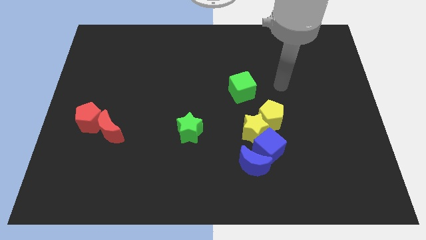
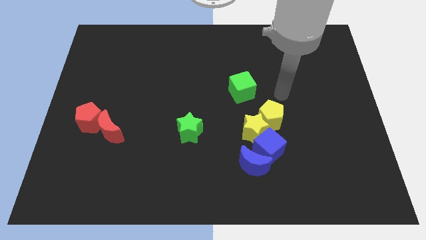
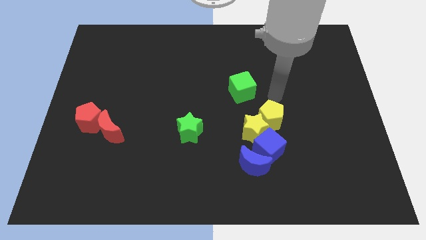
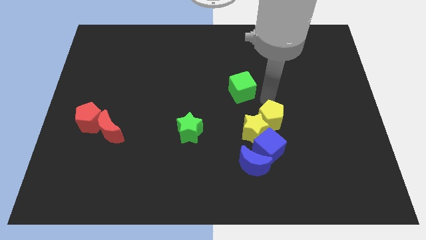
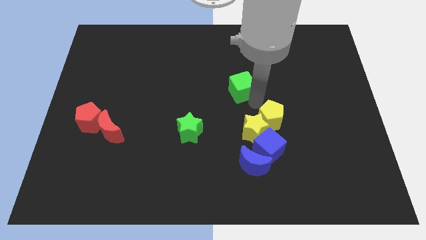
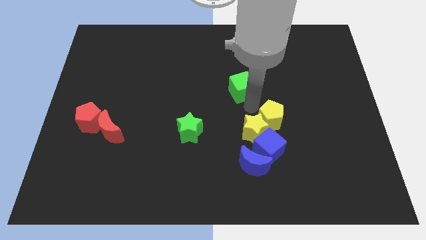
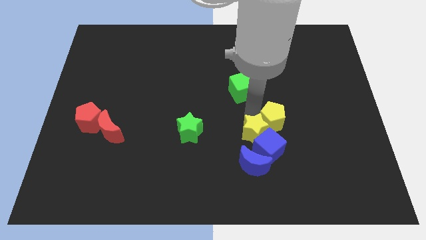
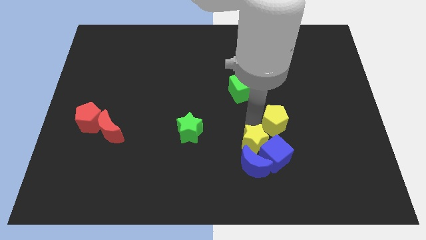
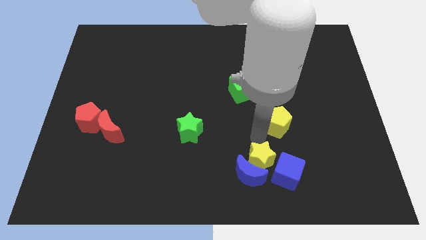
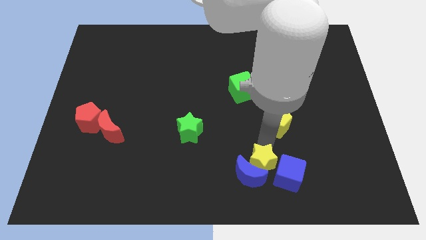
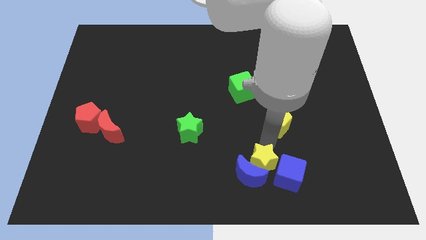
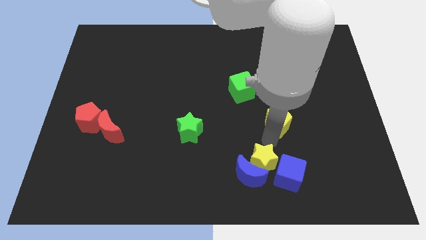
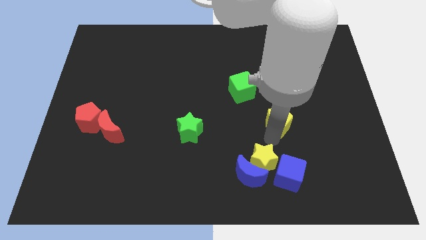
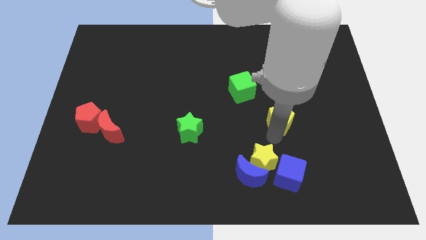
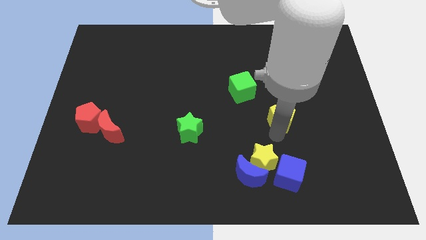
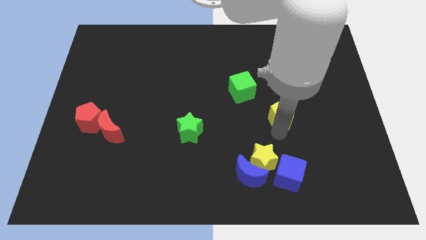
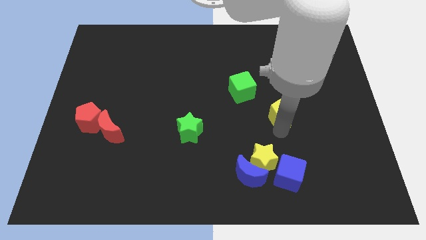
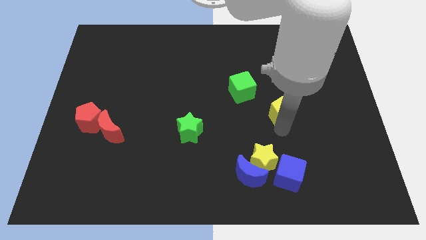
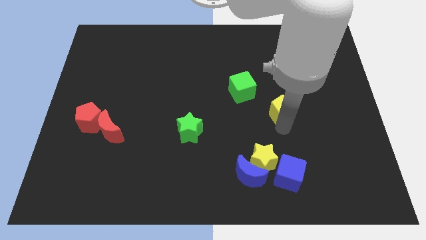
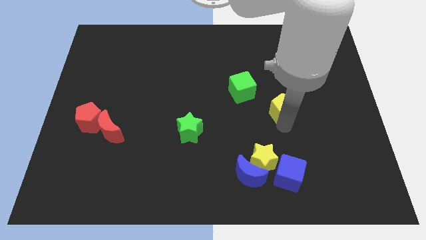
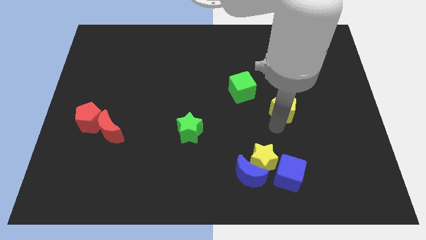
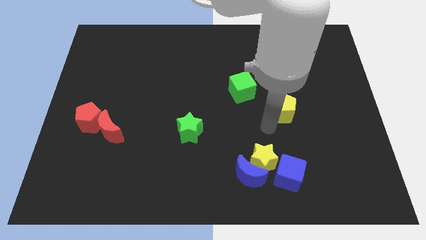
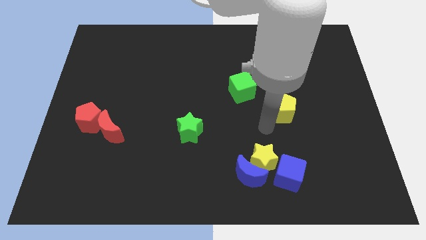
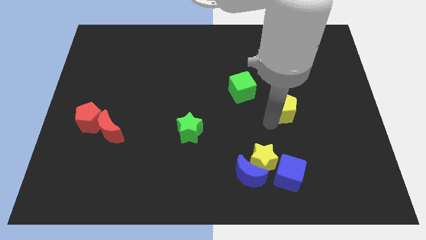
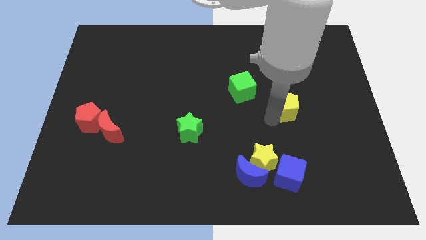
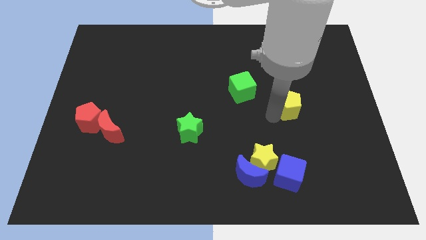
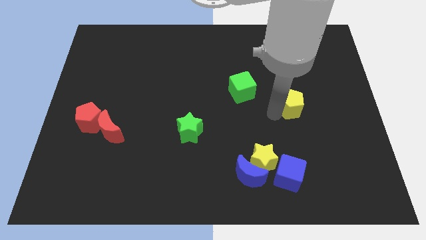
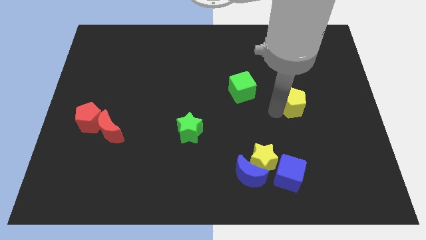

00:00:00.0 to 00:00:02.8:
slightly push the yellow pentagon up and to the right diagonally

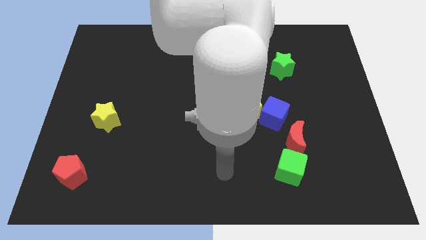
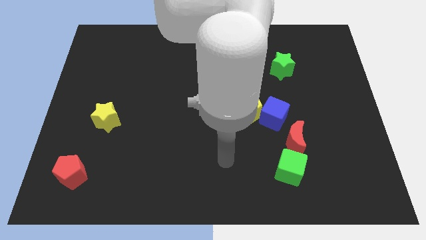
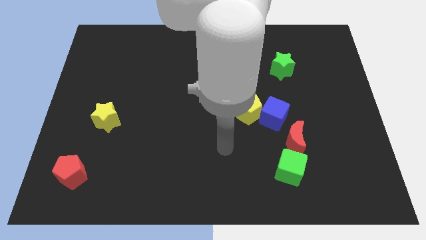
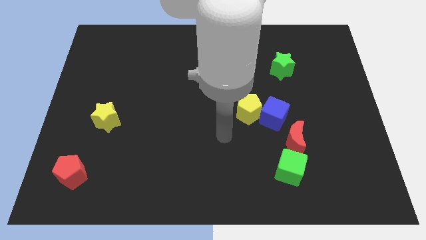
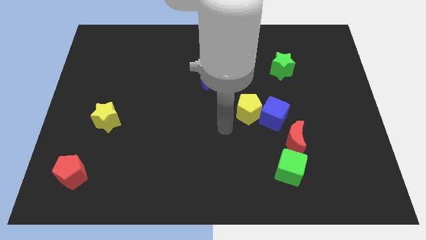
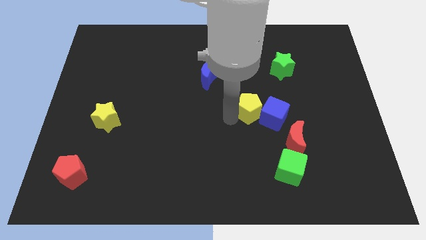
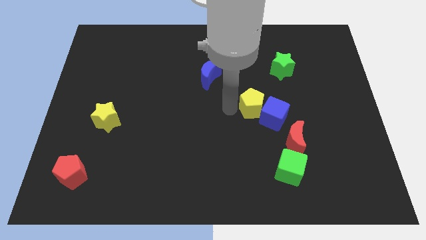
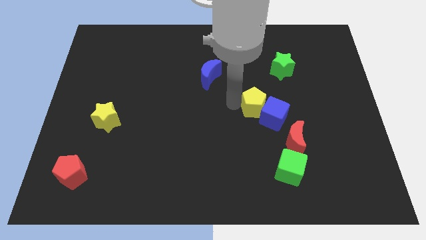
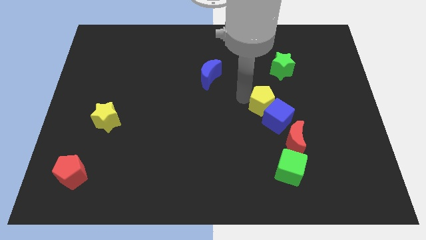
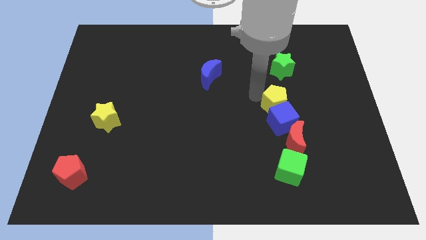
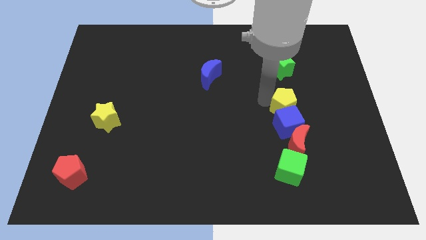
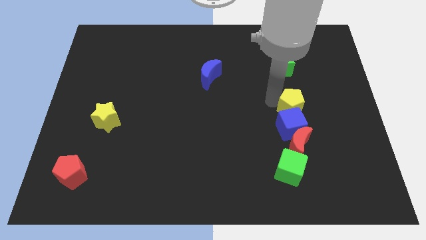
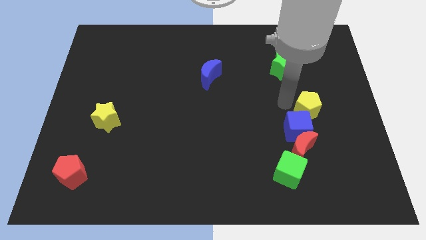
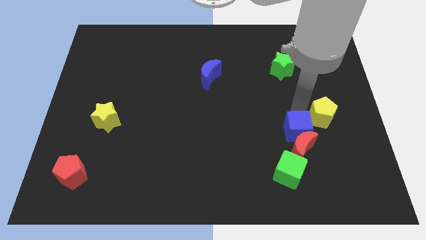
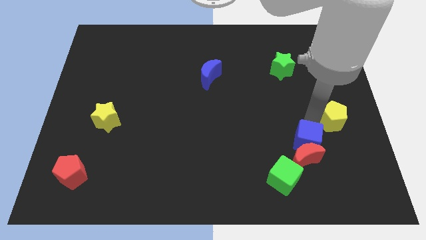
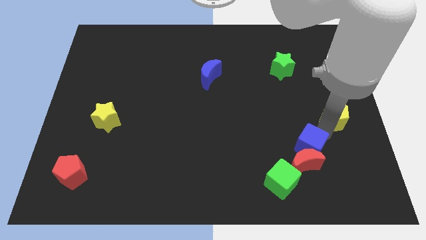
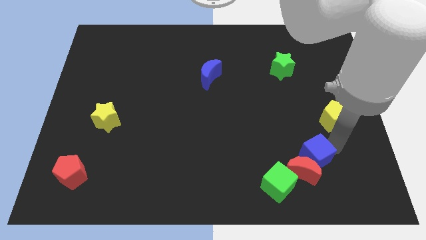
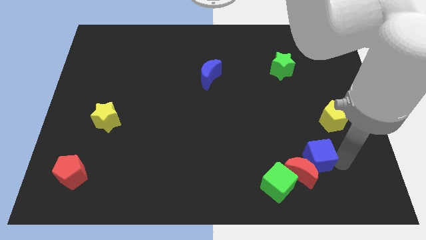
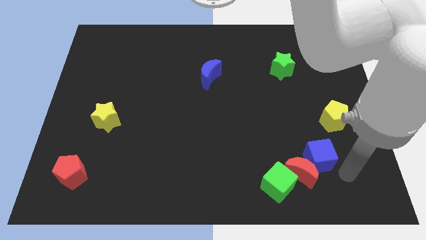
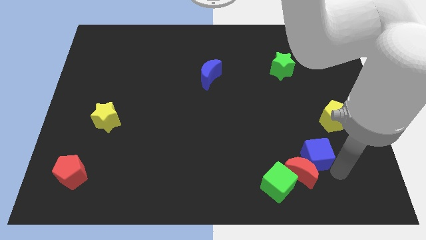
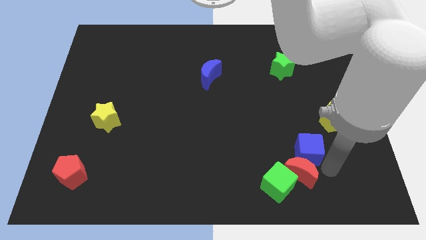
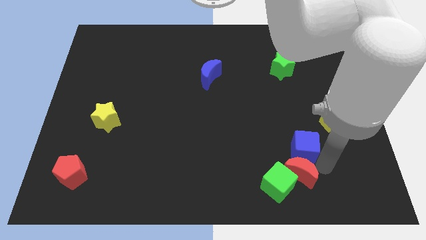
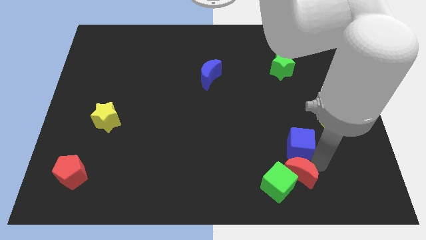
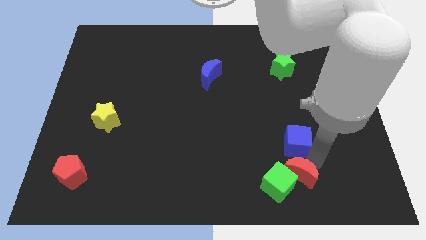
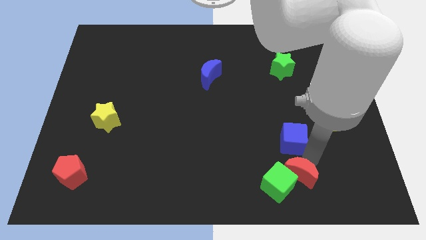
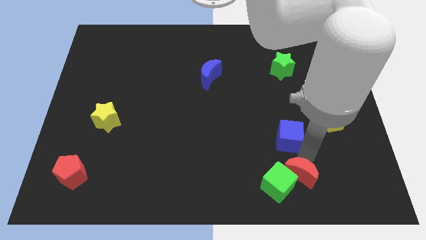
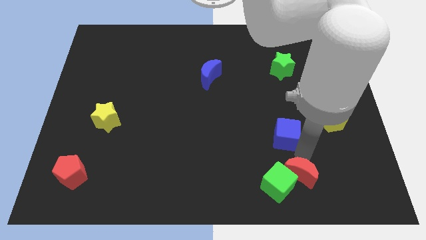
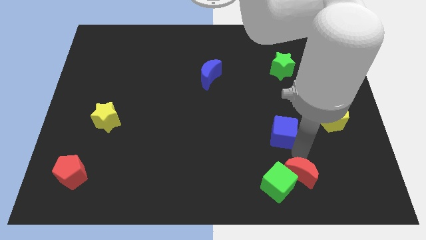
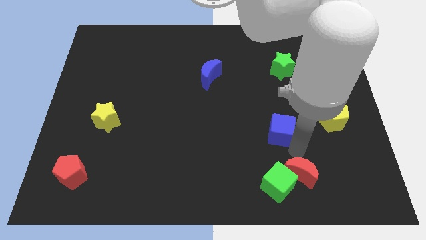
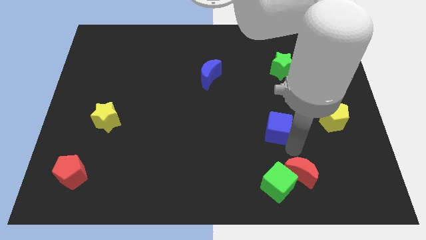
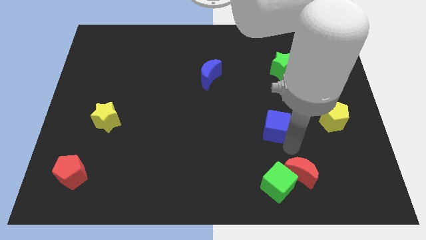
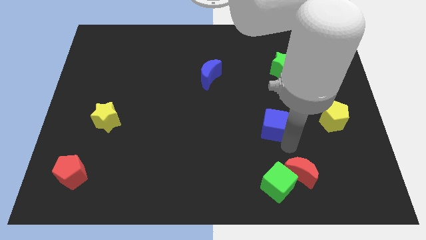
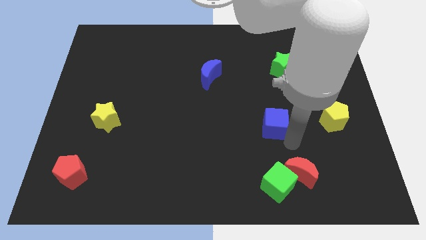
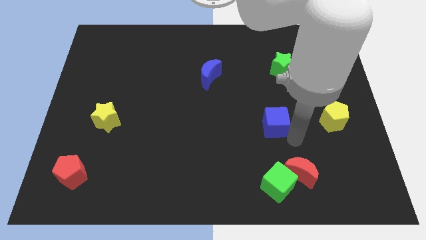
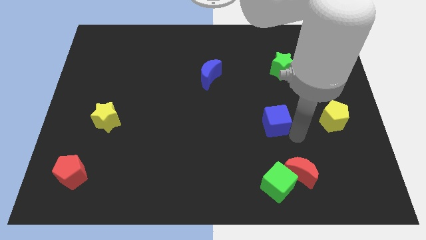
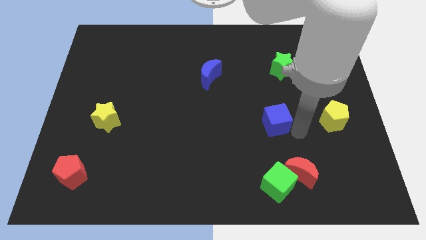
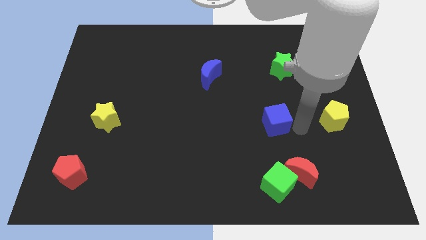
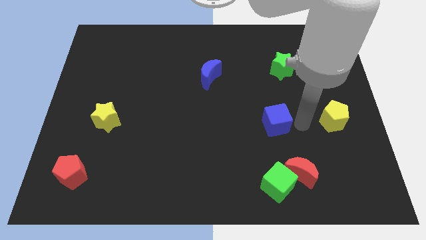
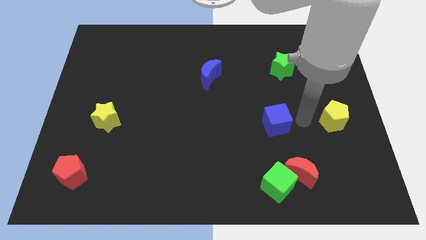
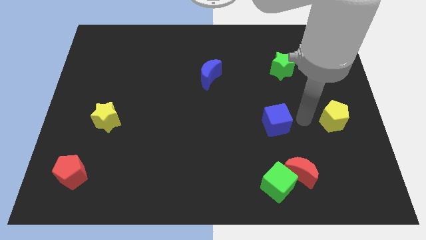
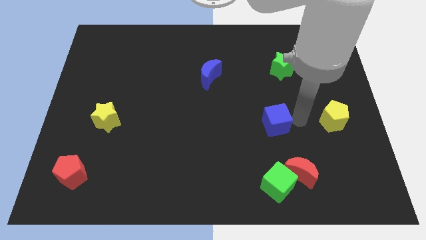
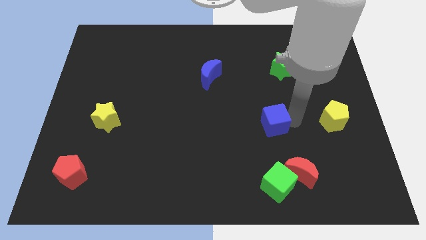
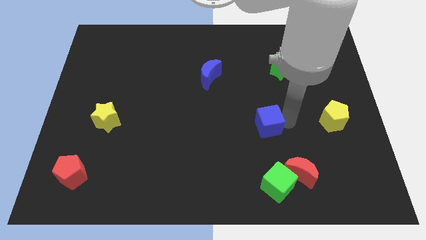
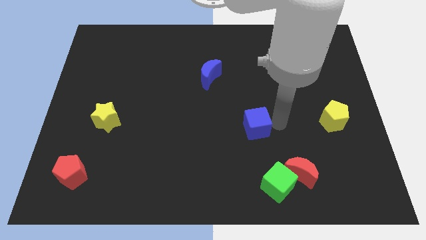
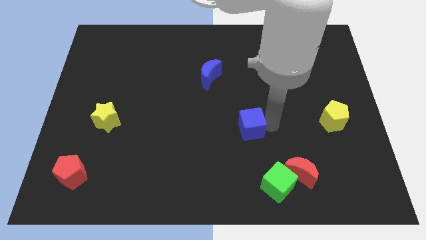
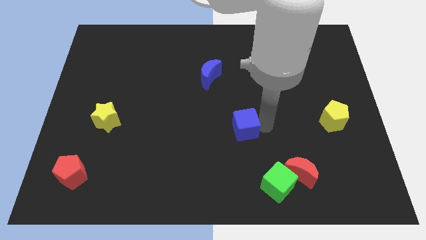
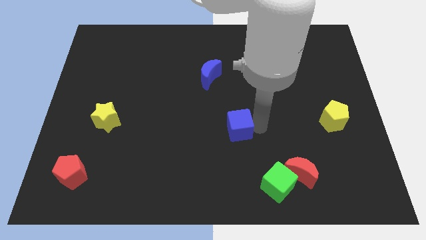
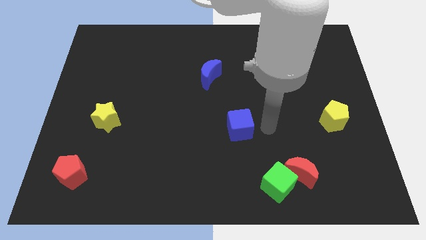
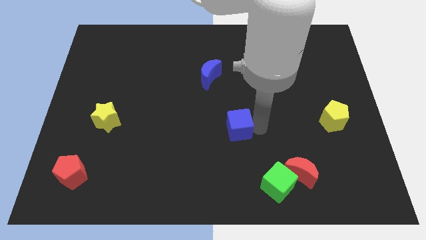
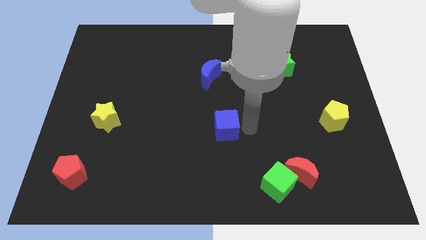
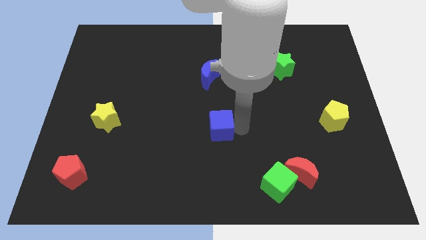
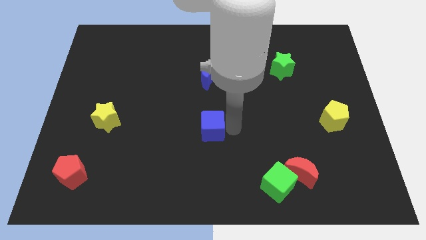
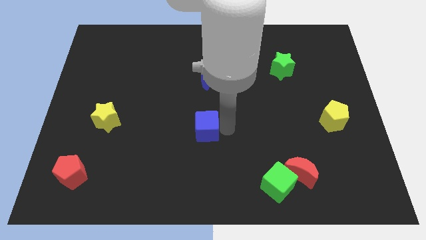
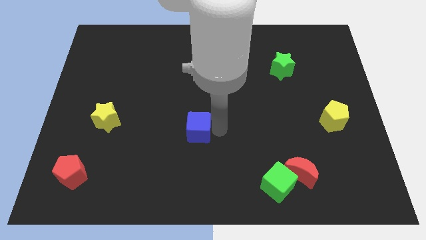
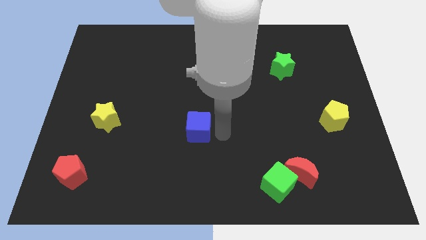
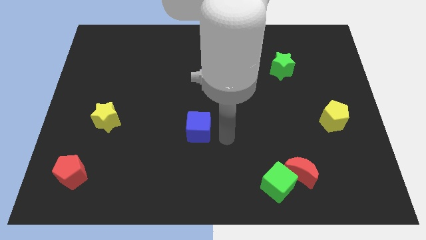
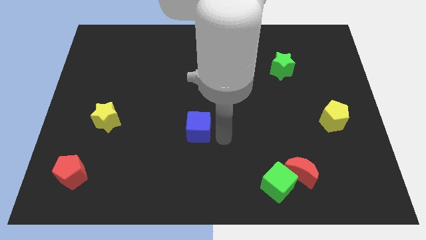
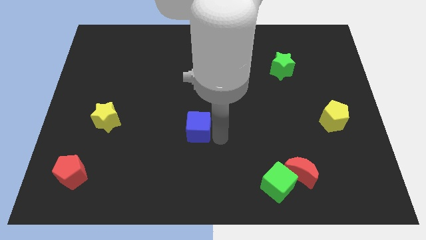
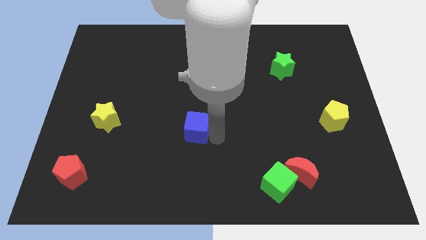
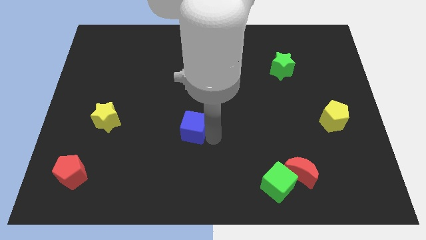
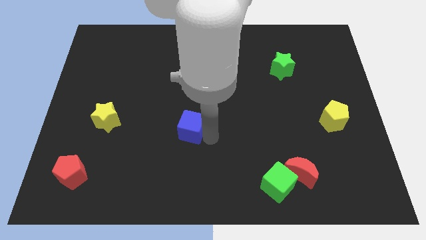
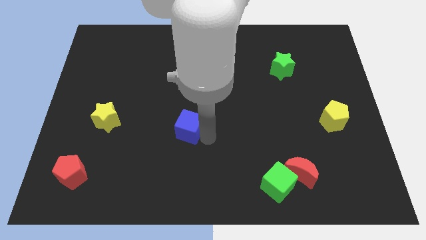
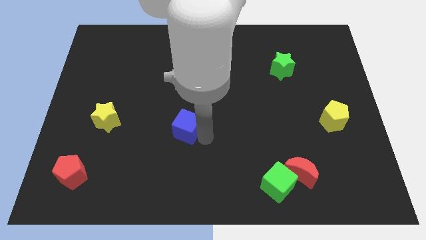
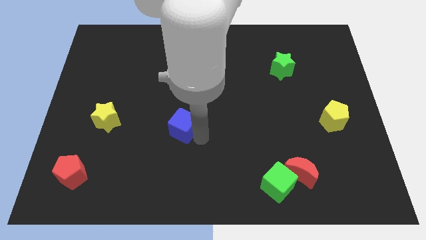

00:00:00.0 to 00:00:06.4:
slide the blue cube left
